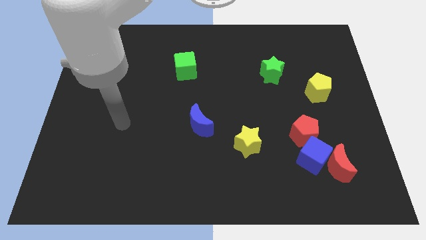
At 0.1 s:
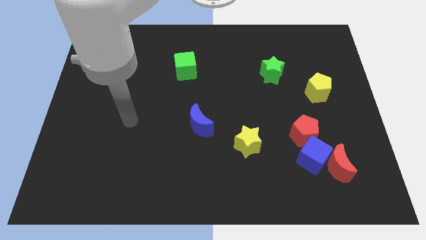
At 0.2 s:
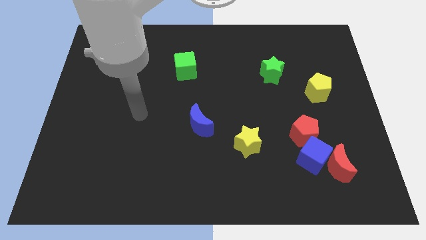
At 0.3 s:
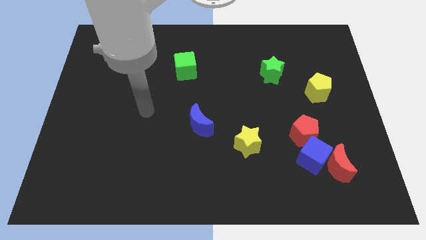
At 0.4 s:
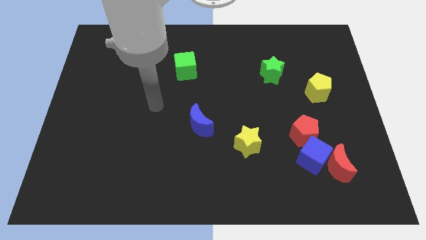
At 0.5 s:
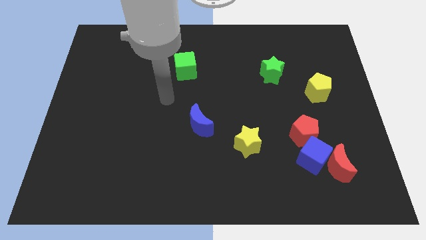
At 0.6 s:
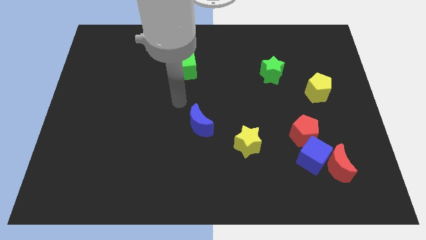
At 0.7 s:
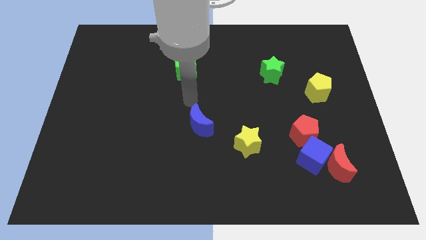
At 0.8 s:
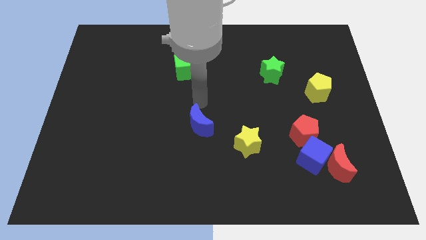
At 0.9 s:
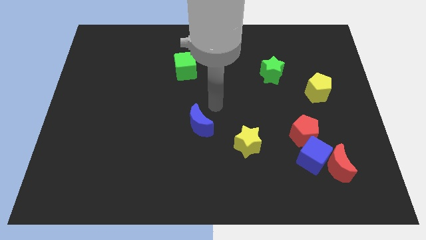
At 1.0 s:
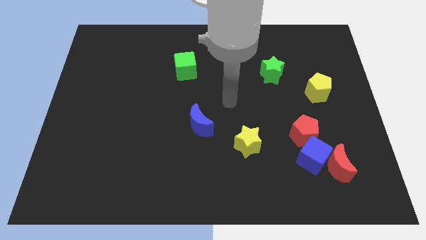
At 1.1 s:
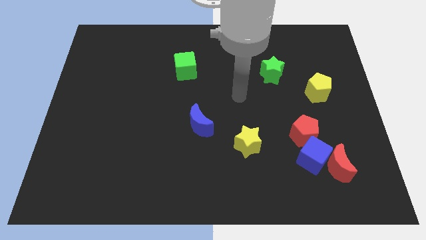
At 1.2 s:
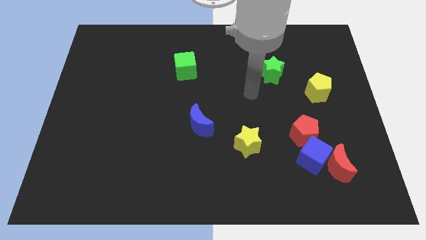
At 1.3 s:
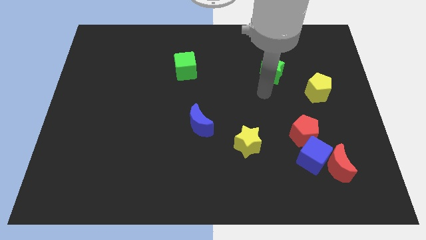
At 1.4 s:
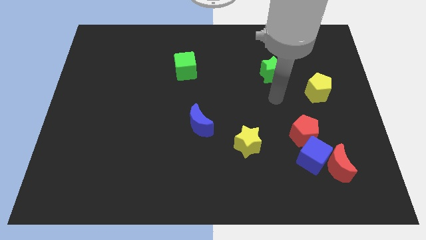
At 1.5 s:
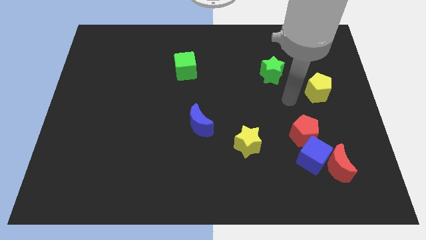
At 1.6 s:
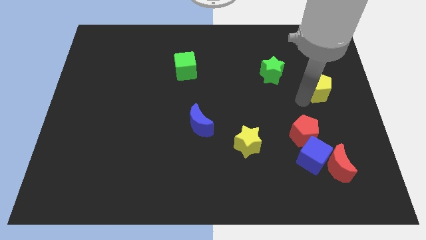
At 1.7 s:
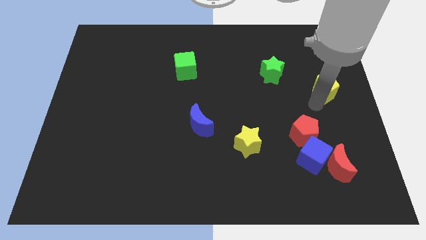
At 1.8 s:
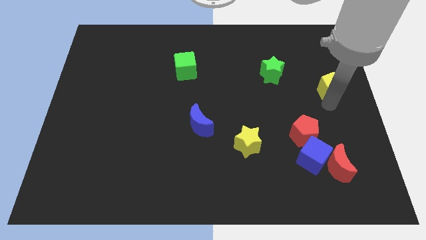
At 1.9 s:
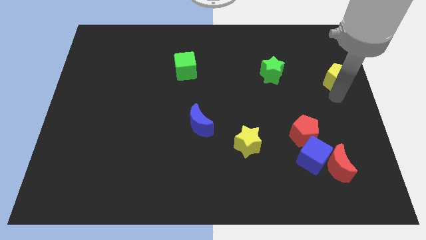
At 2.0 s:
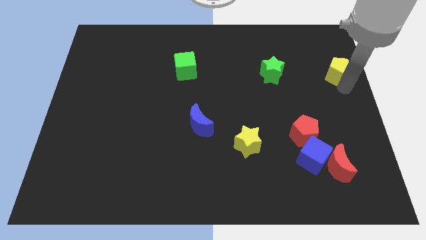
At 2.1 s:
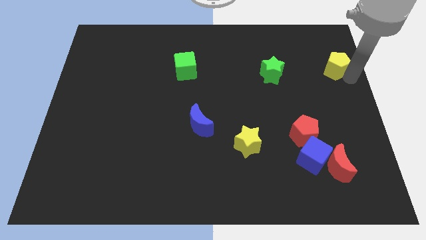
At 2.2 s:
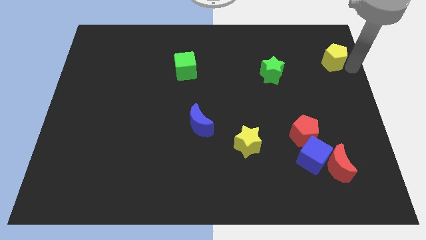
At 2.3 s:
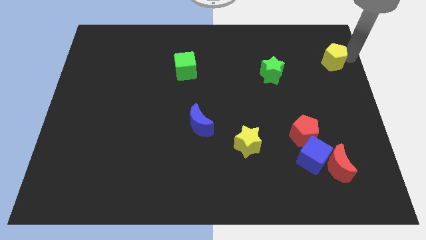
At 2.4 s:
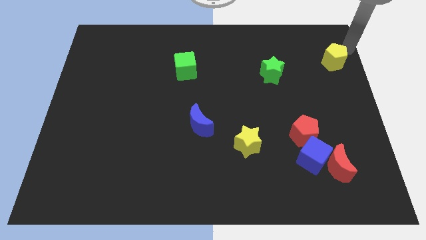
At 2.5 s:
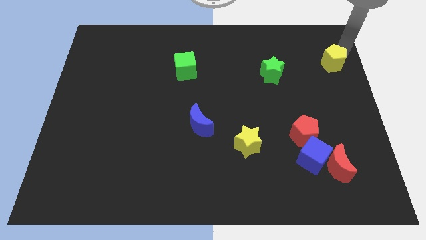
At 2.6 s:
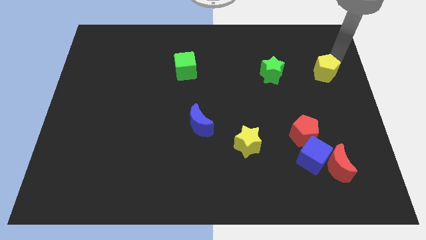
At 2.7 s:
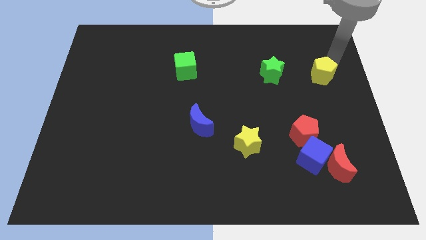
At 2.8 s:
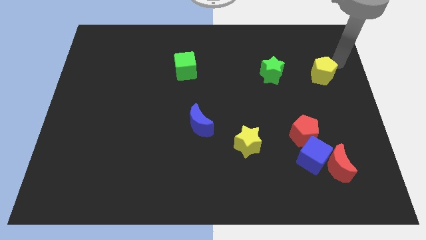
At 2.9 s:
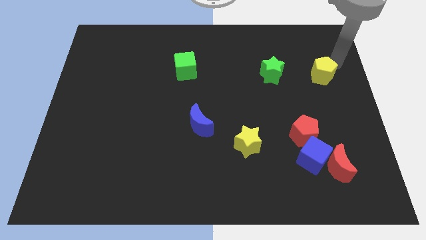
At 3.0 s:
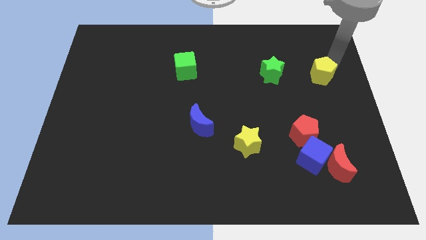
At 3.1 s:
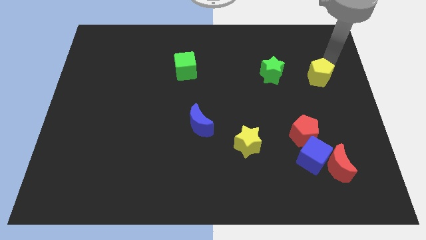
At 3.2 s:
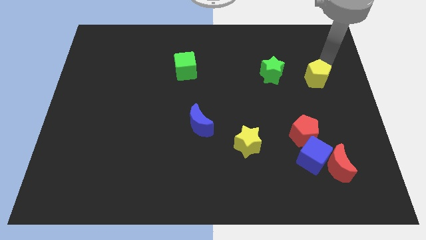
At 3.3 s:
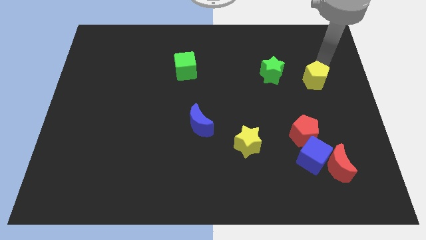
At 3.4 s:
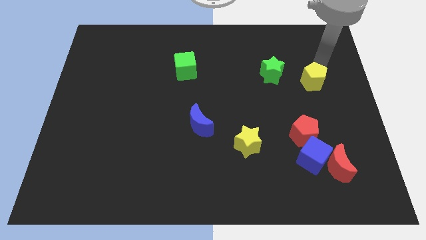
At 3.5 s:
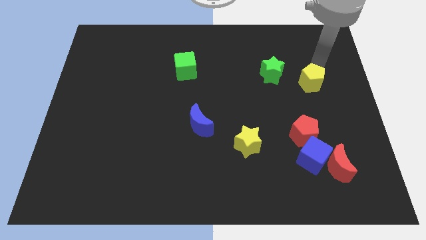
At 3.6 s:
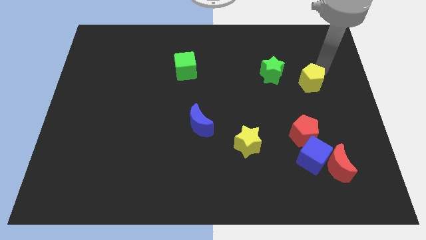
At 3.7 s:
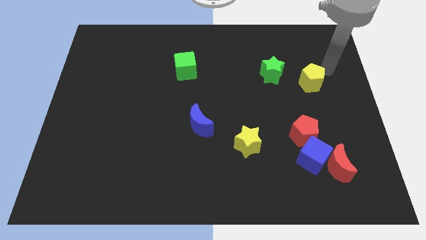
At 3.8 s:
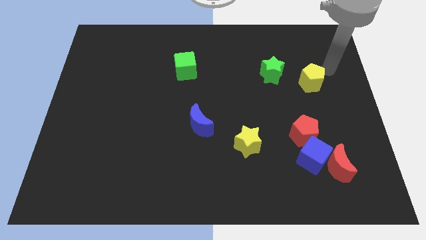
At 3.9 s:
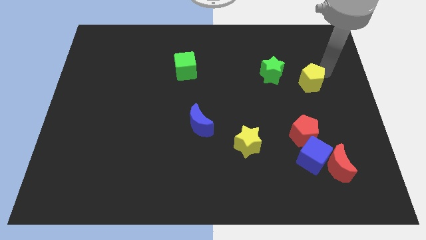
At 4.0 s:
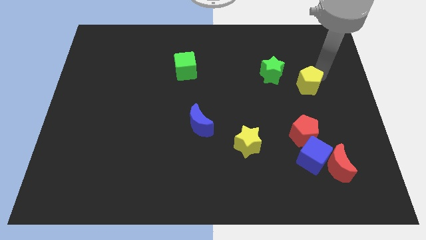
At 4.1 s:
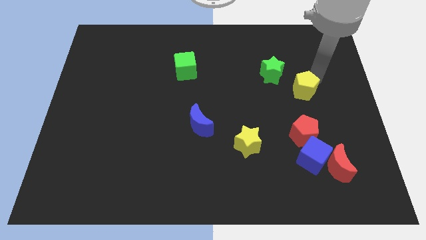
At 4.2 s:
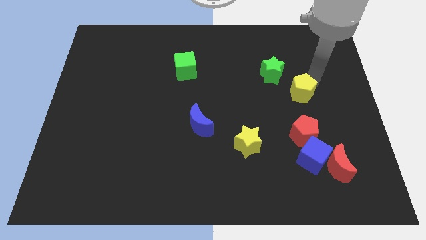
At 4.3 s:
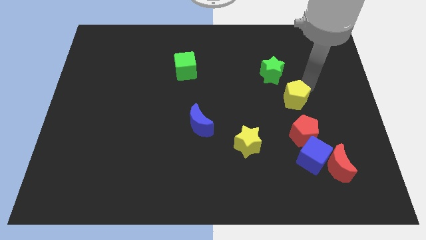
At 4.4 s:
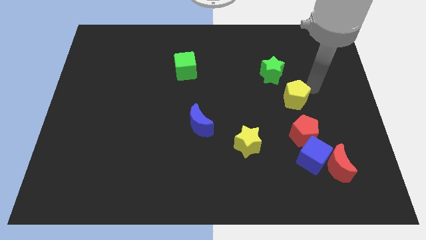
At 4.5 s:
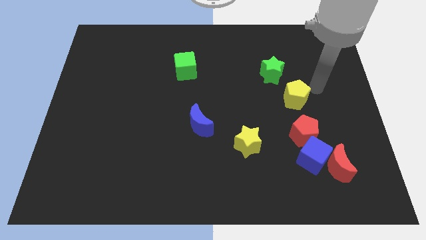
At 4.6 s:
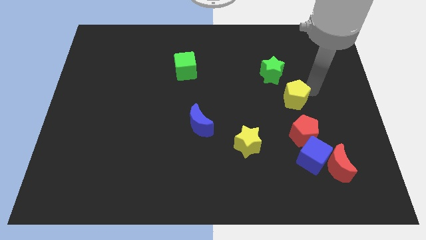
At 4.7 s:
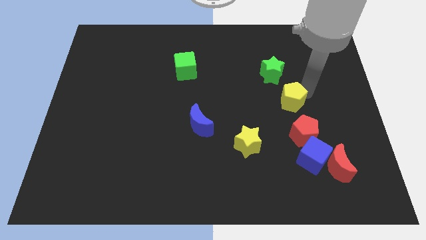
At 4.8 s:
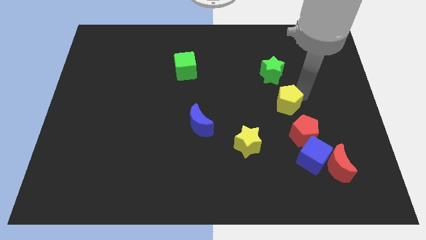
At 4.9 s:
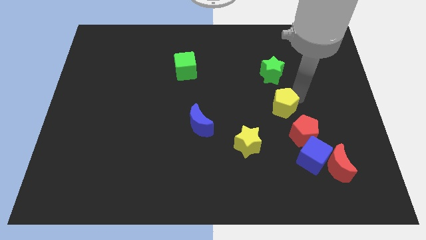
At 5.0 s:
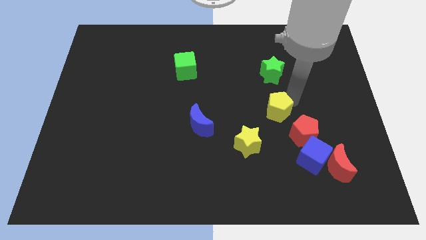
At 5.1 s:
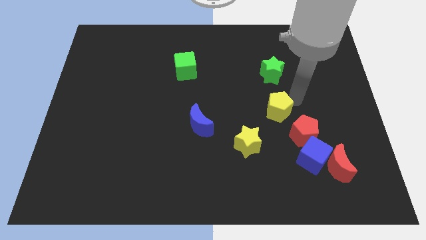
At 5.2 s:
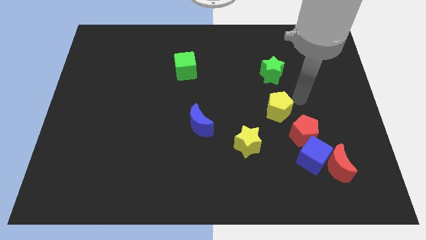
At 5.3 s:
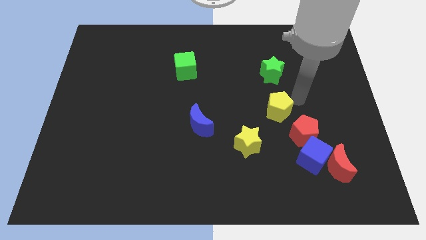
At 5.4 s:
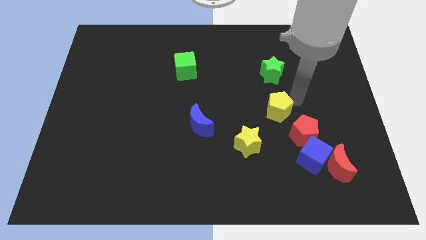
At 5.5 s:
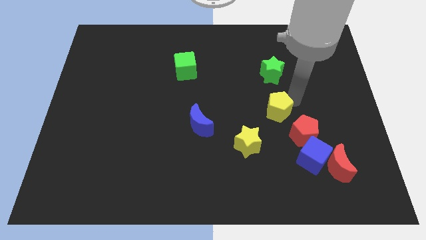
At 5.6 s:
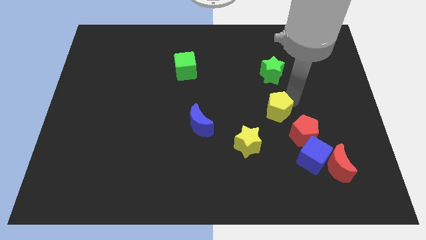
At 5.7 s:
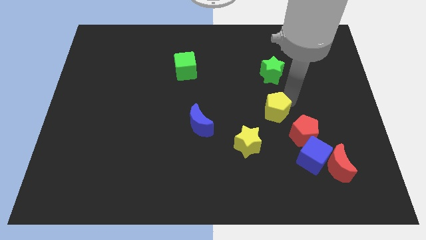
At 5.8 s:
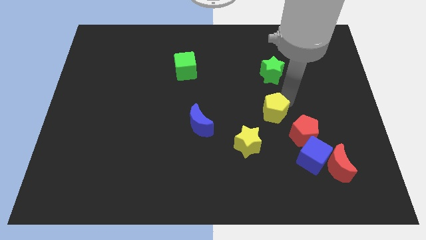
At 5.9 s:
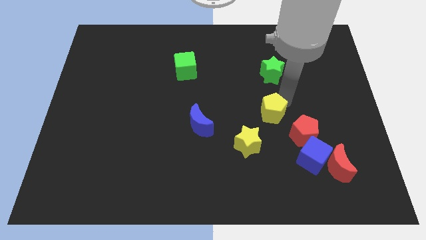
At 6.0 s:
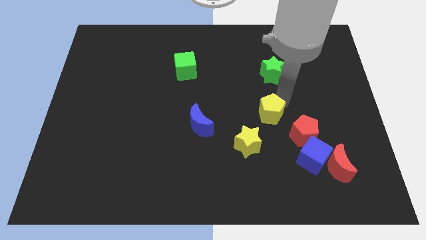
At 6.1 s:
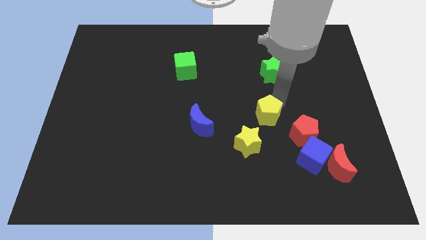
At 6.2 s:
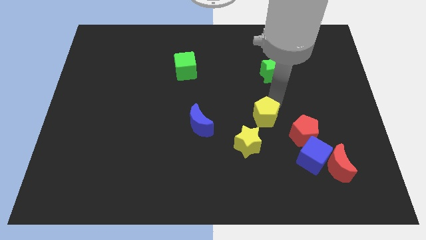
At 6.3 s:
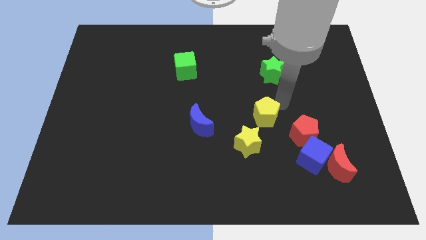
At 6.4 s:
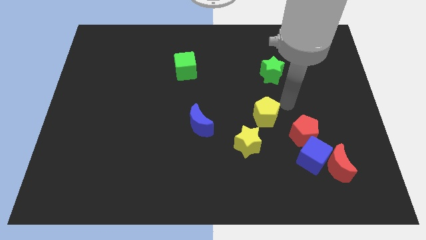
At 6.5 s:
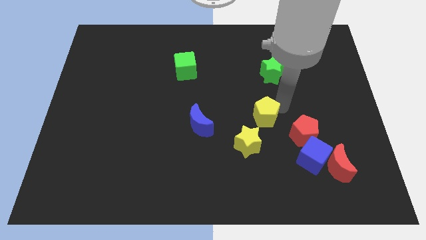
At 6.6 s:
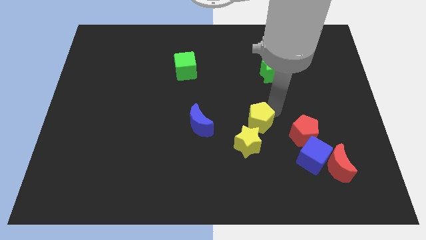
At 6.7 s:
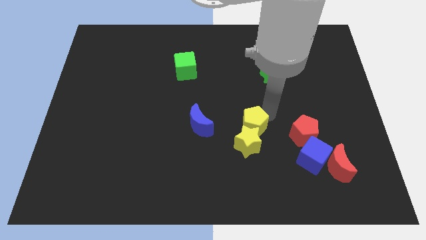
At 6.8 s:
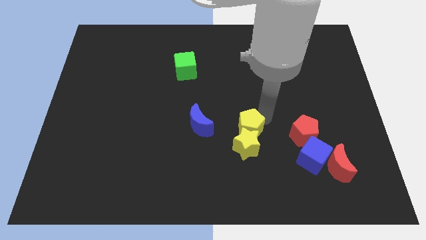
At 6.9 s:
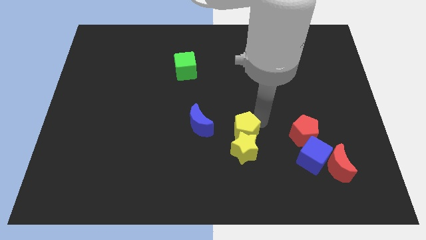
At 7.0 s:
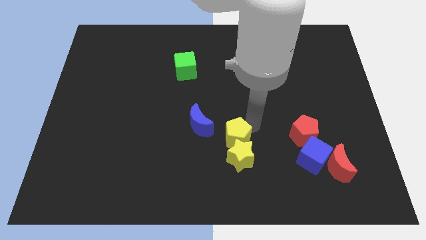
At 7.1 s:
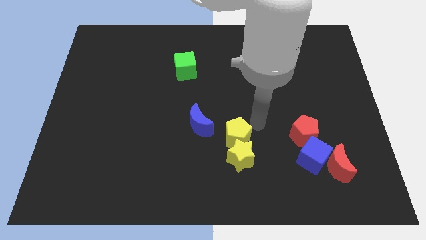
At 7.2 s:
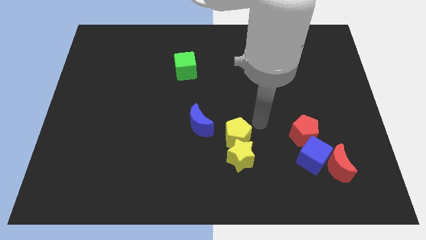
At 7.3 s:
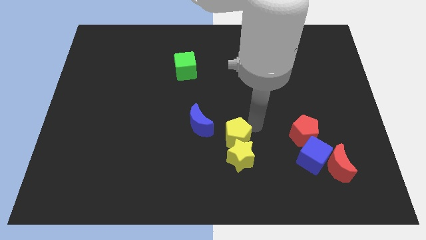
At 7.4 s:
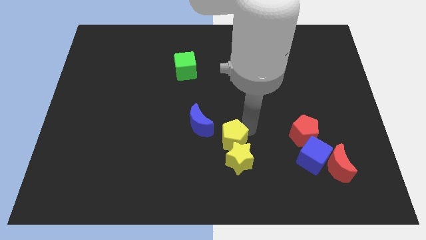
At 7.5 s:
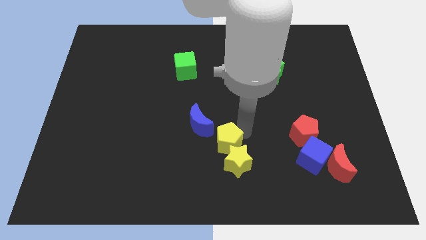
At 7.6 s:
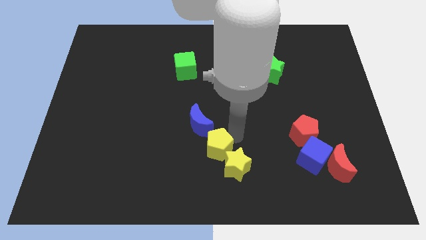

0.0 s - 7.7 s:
slide the yellow pentagon to the bottom side of the blue moon
